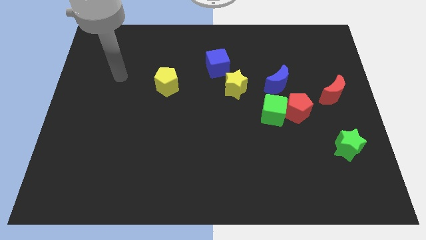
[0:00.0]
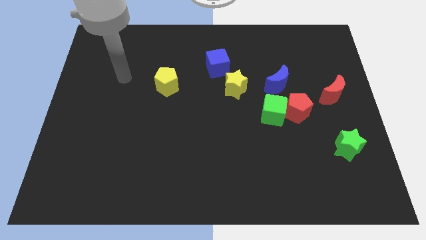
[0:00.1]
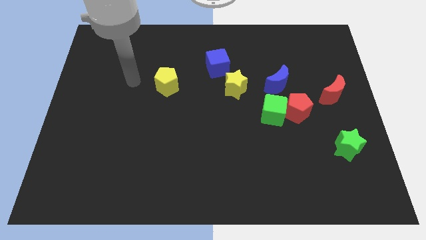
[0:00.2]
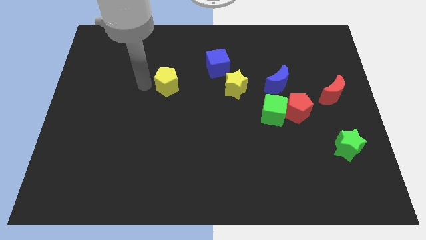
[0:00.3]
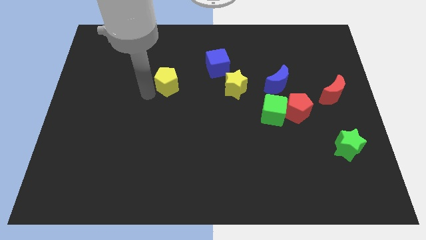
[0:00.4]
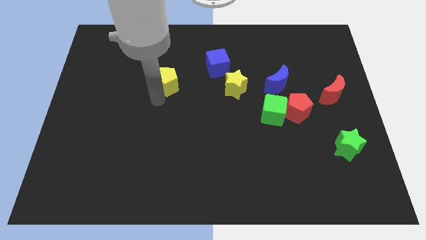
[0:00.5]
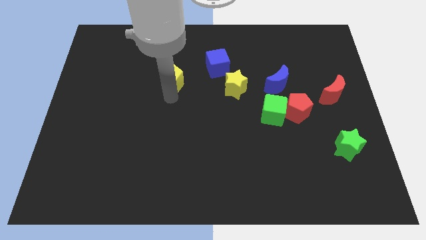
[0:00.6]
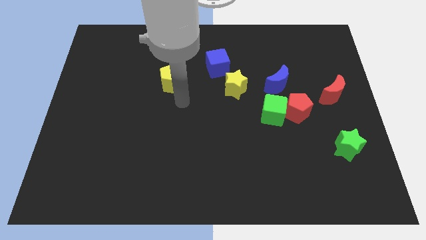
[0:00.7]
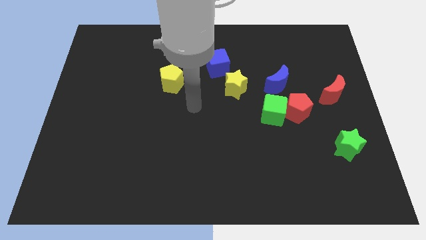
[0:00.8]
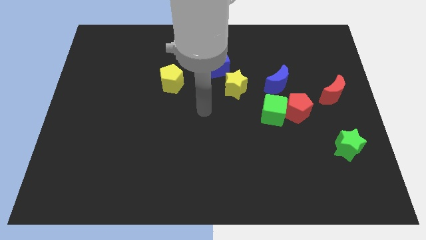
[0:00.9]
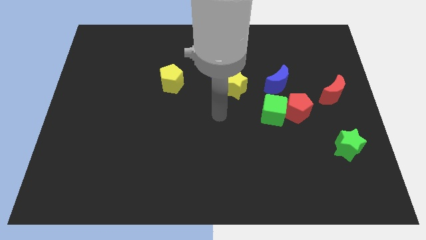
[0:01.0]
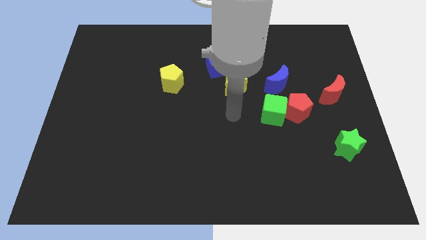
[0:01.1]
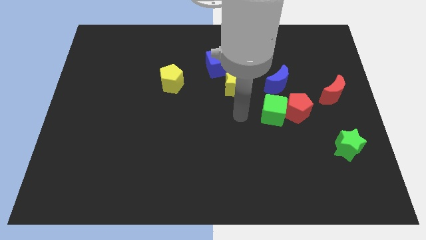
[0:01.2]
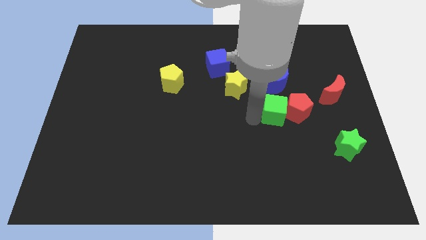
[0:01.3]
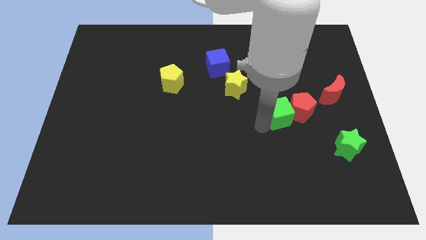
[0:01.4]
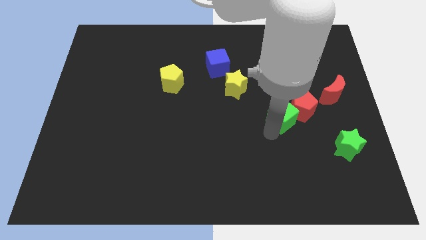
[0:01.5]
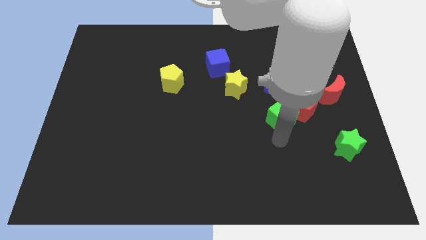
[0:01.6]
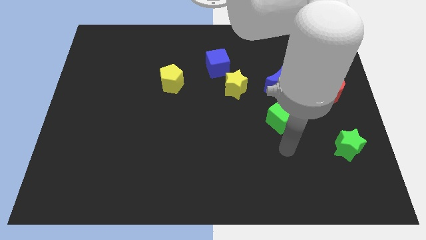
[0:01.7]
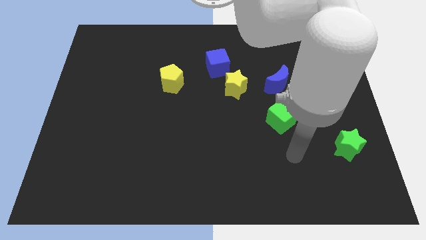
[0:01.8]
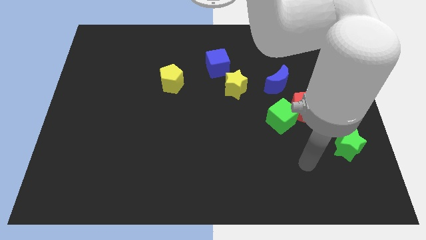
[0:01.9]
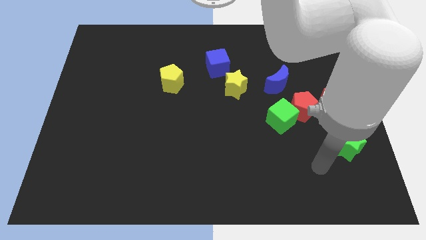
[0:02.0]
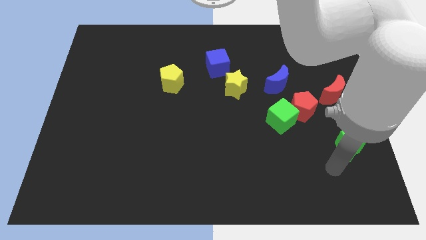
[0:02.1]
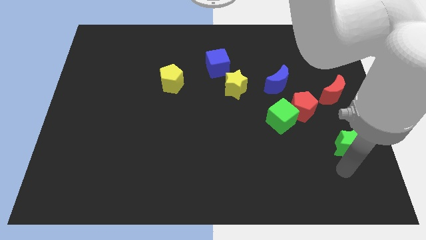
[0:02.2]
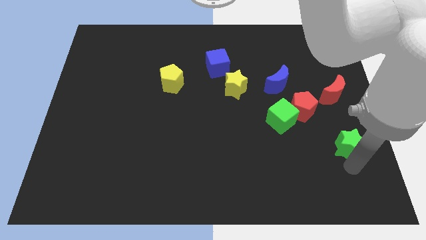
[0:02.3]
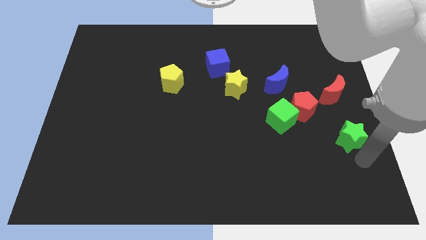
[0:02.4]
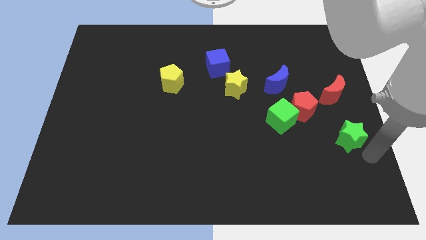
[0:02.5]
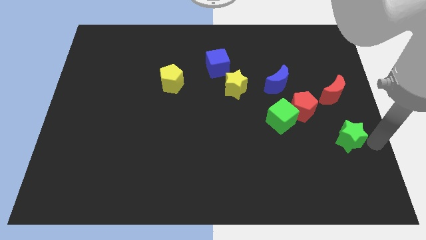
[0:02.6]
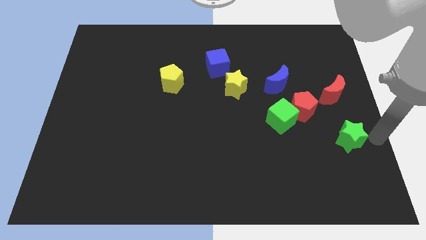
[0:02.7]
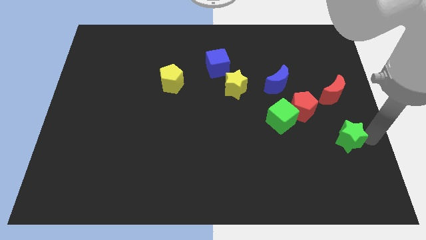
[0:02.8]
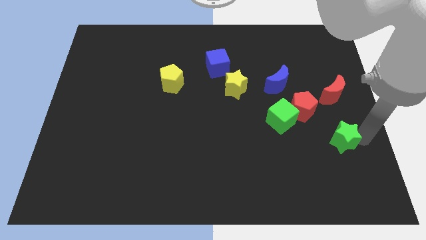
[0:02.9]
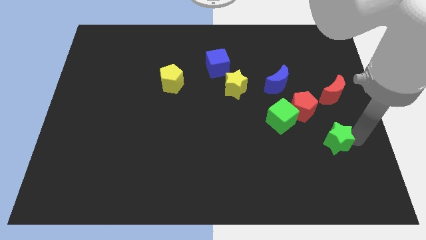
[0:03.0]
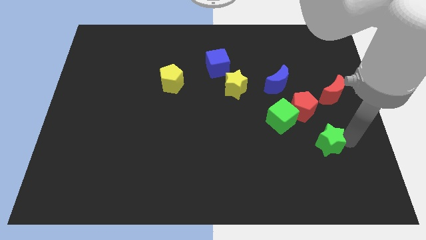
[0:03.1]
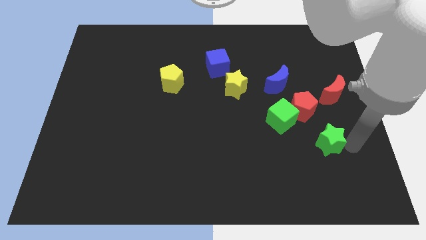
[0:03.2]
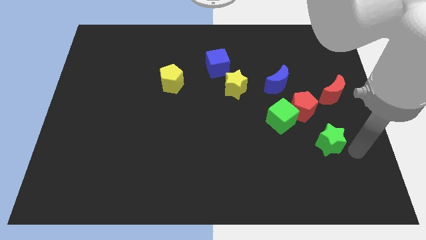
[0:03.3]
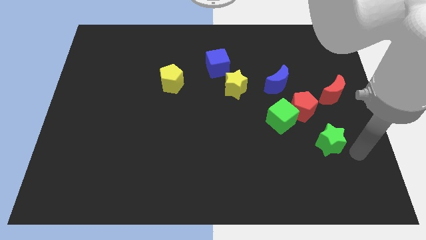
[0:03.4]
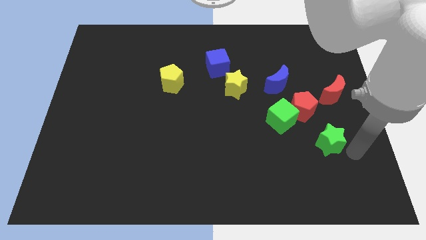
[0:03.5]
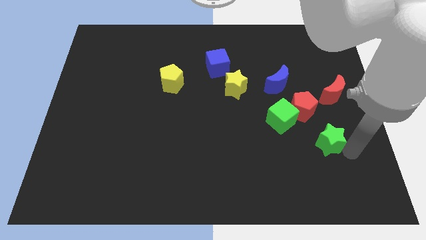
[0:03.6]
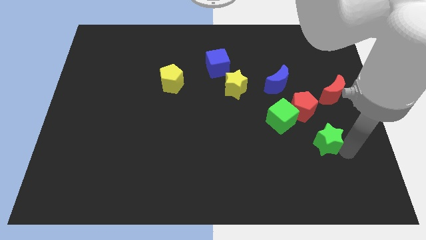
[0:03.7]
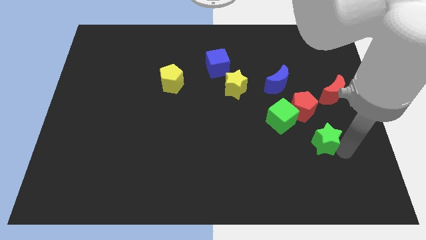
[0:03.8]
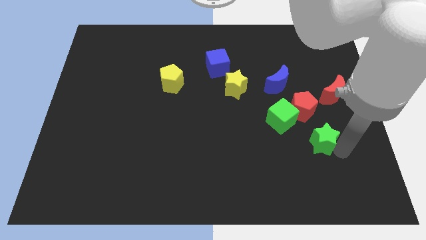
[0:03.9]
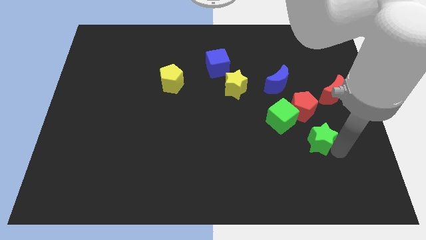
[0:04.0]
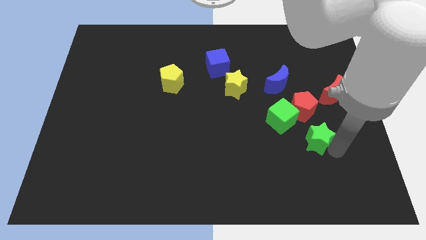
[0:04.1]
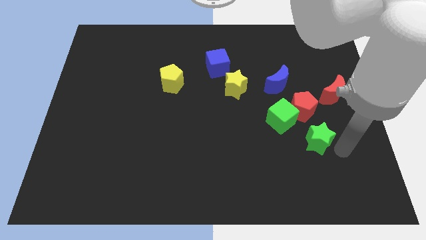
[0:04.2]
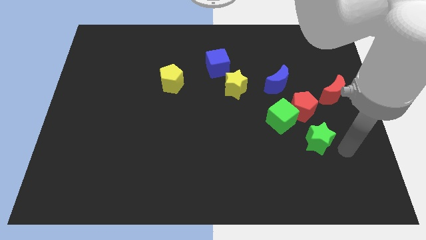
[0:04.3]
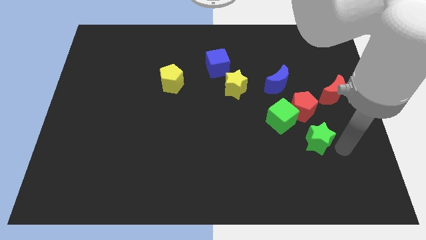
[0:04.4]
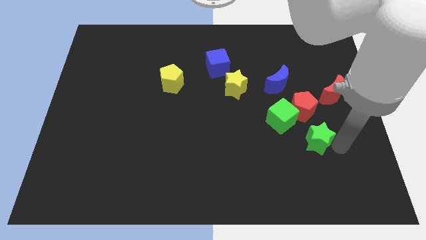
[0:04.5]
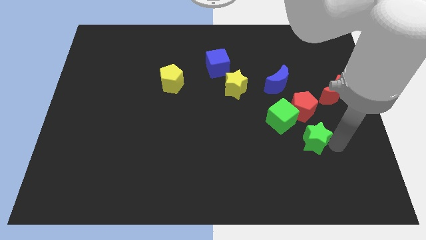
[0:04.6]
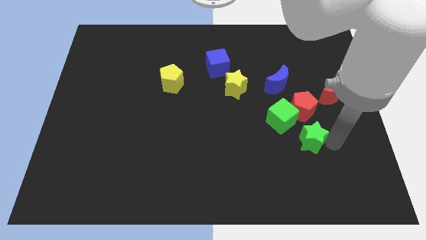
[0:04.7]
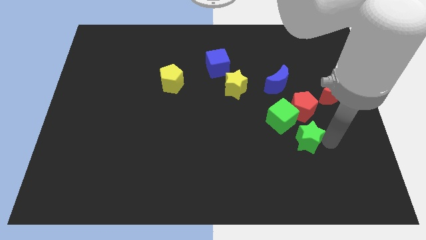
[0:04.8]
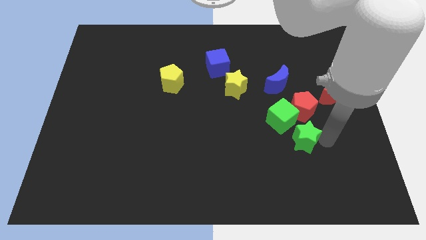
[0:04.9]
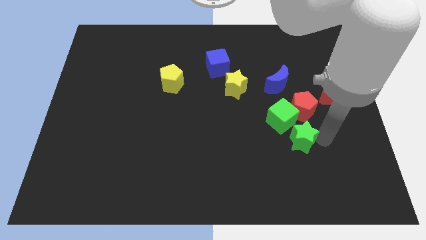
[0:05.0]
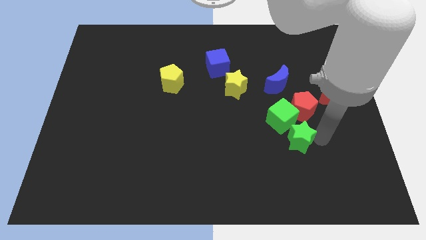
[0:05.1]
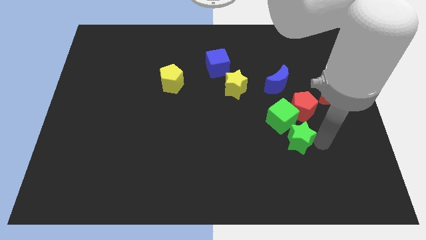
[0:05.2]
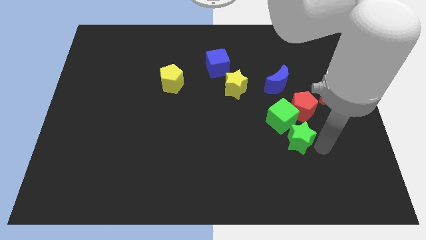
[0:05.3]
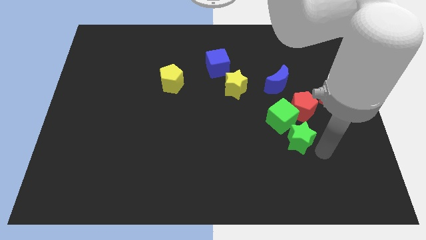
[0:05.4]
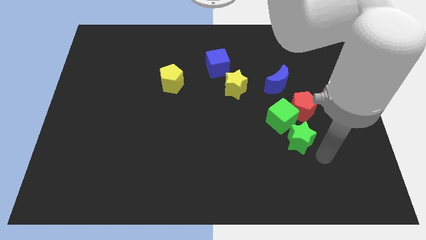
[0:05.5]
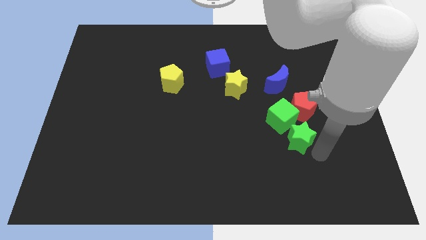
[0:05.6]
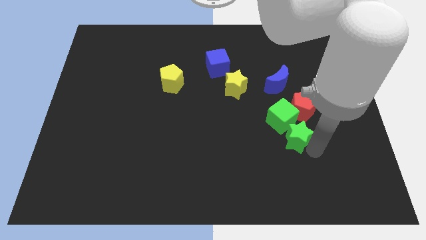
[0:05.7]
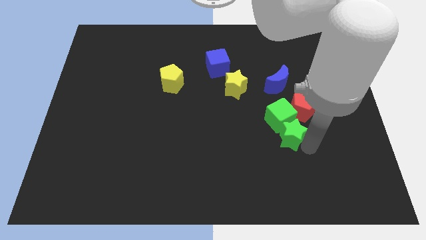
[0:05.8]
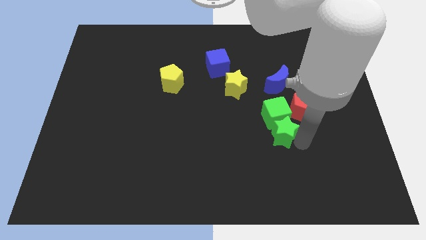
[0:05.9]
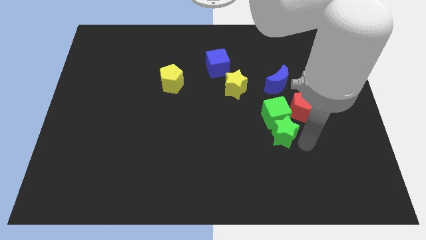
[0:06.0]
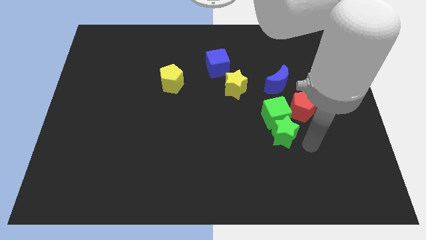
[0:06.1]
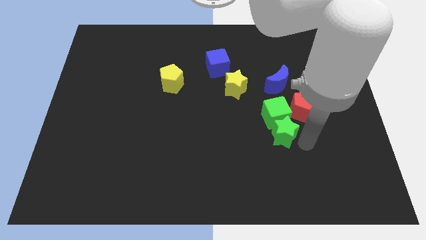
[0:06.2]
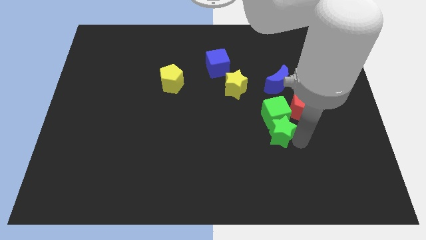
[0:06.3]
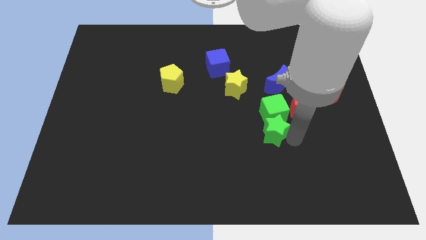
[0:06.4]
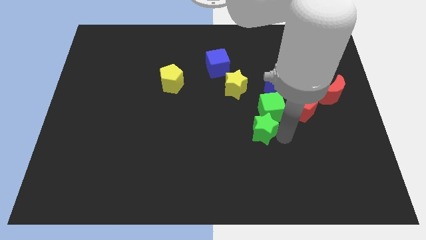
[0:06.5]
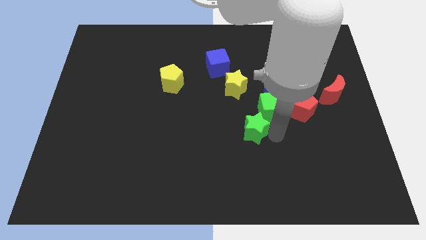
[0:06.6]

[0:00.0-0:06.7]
put the green star to the center

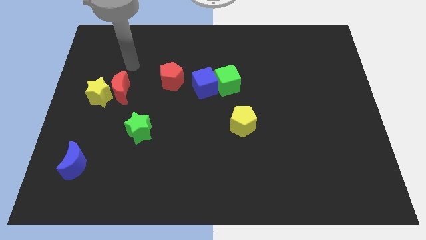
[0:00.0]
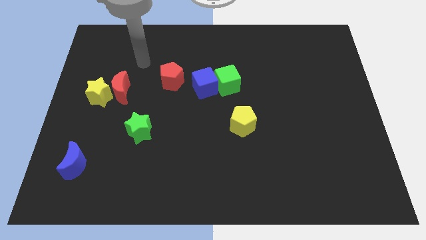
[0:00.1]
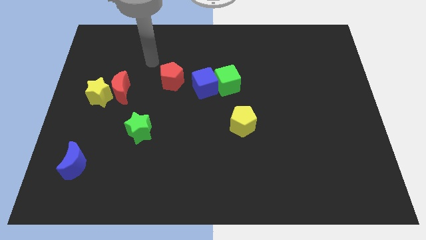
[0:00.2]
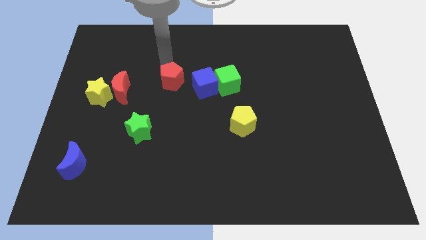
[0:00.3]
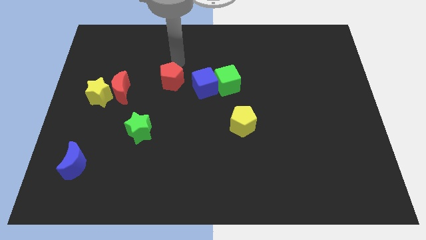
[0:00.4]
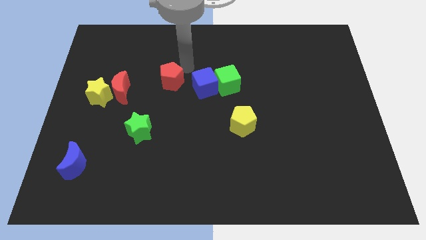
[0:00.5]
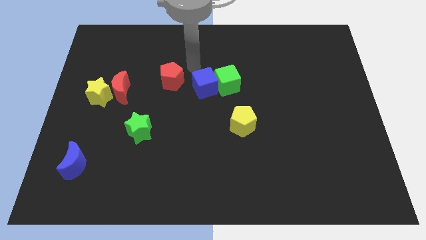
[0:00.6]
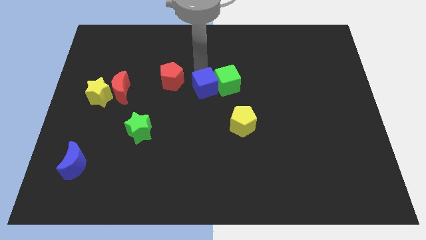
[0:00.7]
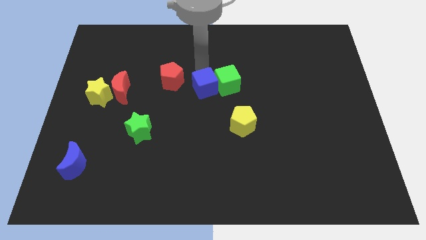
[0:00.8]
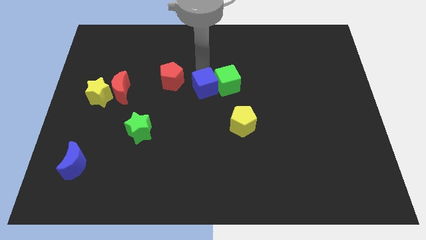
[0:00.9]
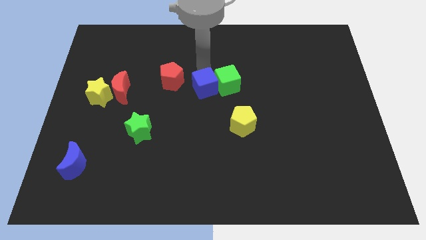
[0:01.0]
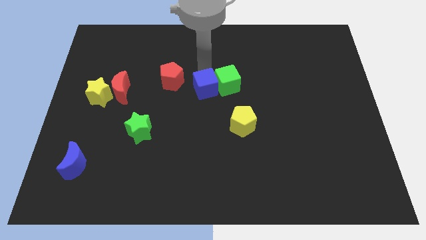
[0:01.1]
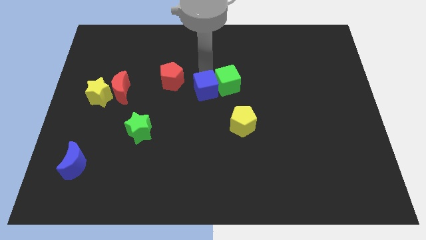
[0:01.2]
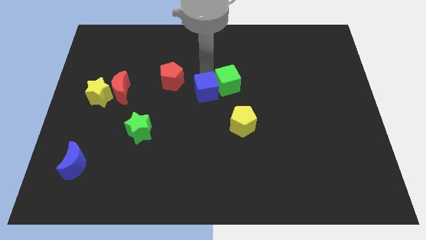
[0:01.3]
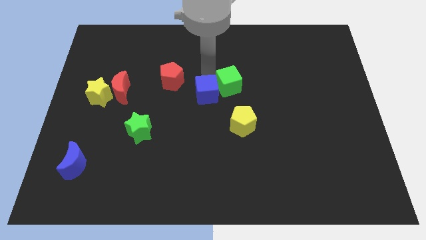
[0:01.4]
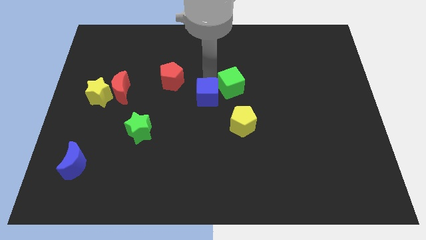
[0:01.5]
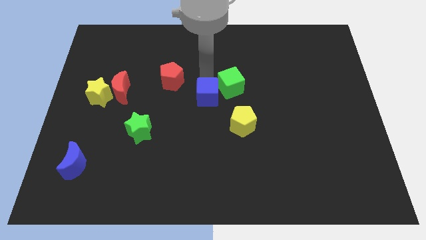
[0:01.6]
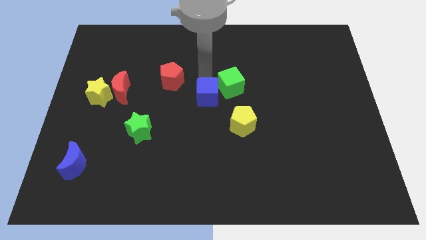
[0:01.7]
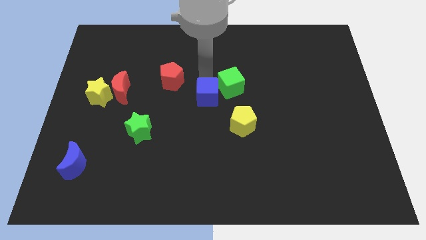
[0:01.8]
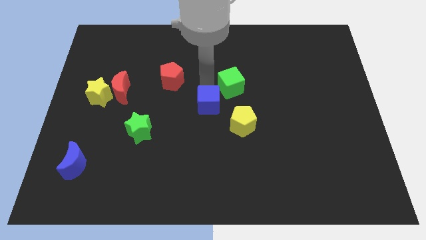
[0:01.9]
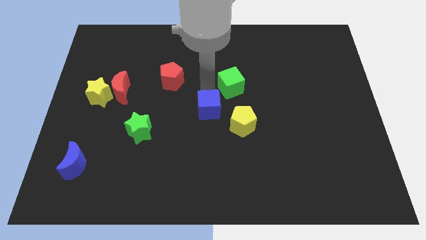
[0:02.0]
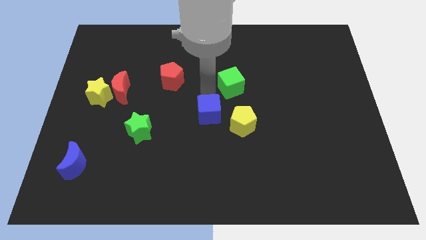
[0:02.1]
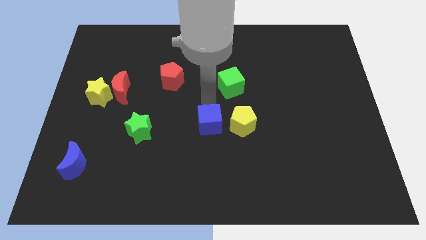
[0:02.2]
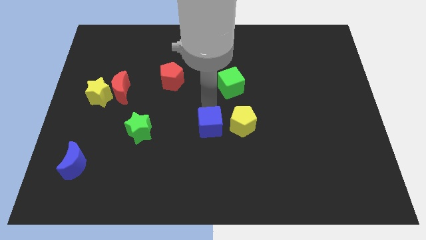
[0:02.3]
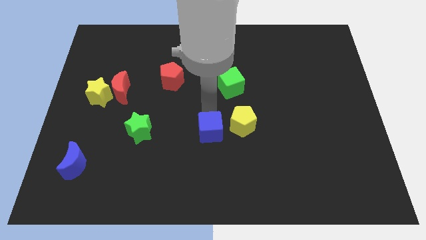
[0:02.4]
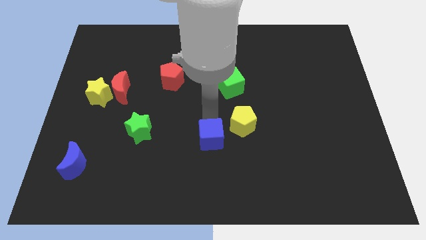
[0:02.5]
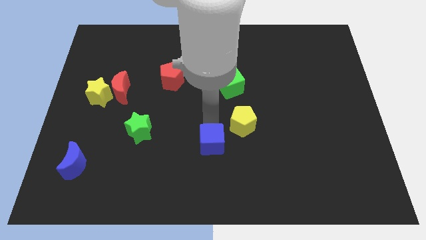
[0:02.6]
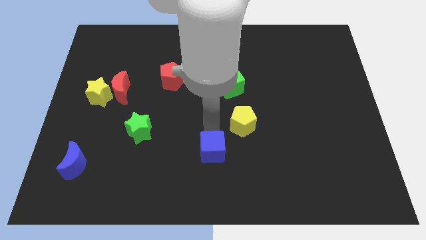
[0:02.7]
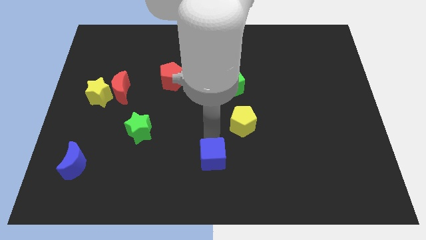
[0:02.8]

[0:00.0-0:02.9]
put the blue cube to the bottom
